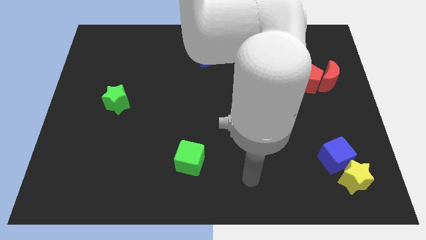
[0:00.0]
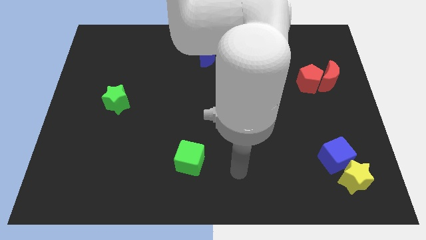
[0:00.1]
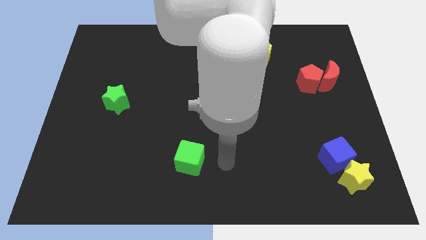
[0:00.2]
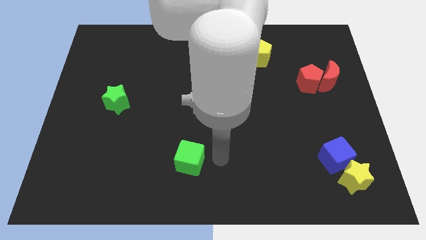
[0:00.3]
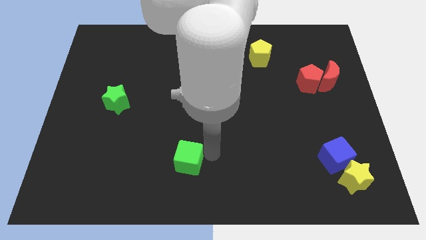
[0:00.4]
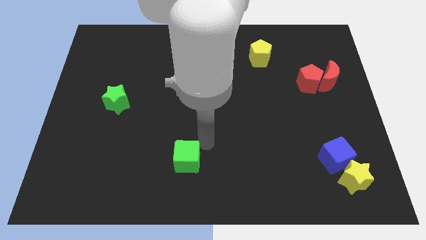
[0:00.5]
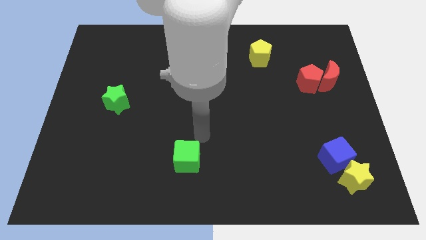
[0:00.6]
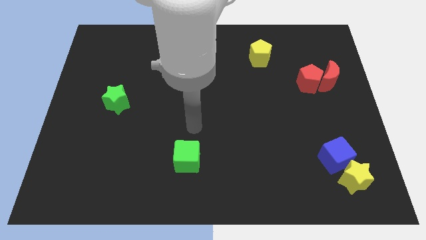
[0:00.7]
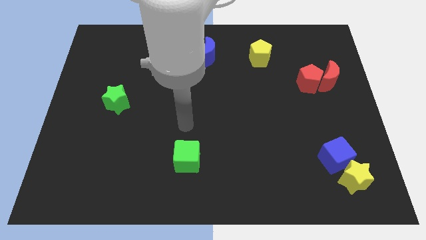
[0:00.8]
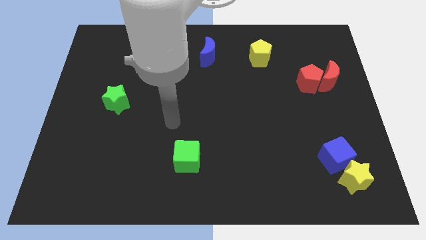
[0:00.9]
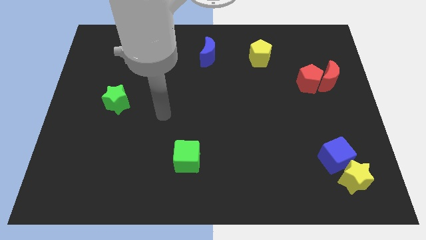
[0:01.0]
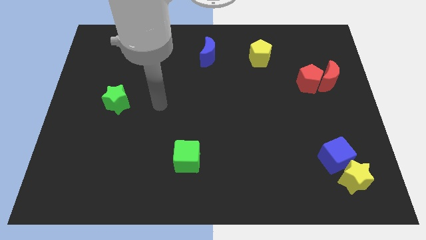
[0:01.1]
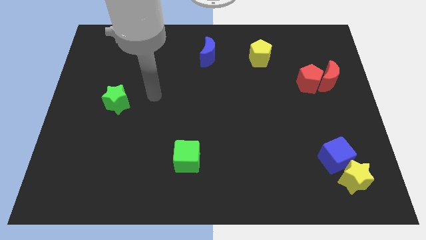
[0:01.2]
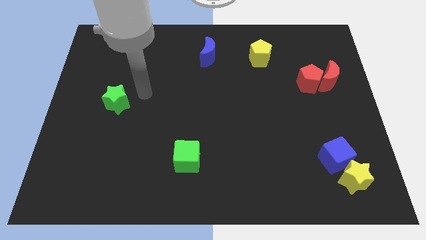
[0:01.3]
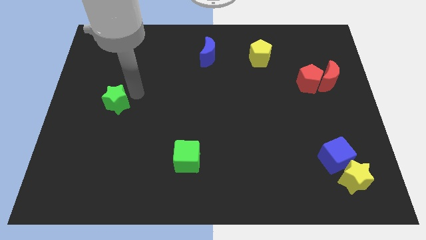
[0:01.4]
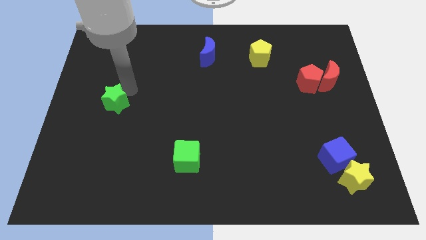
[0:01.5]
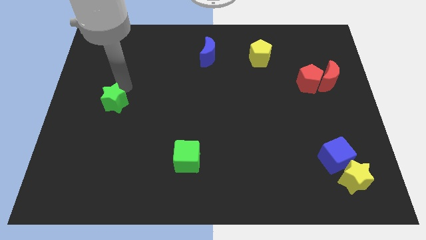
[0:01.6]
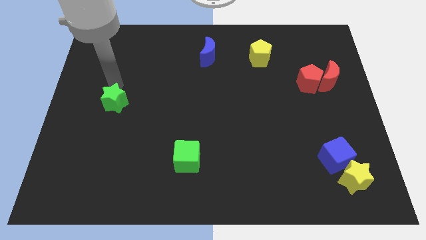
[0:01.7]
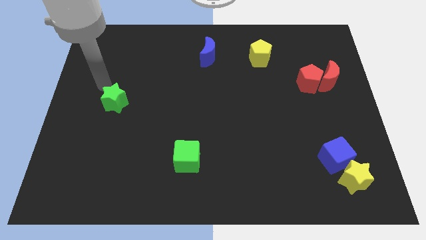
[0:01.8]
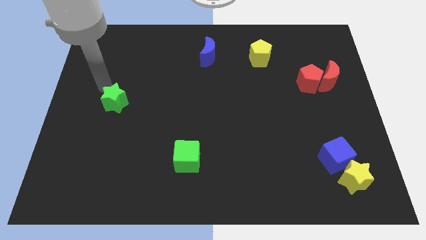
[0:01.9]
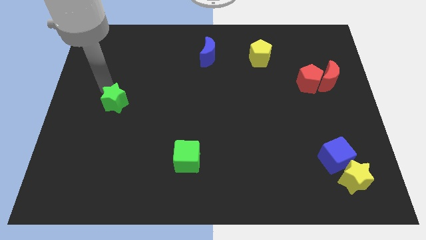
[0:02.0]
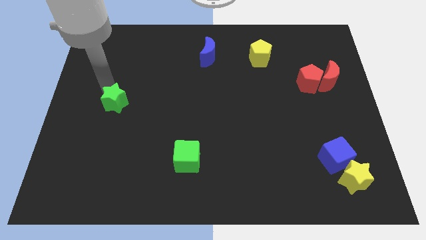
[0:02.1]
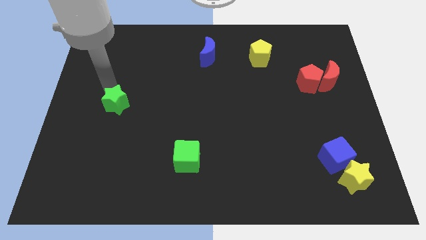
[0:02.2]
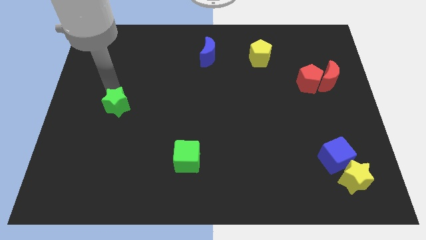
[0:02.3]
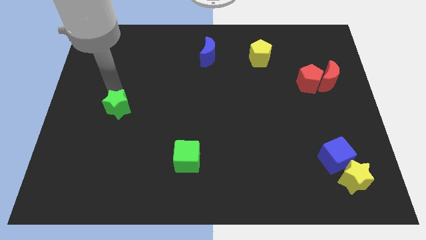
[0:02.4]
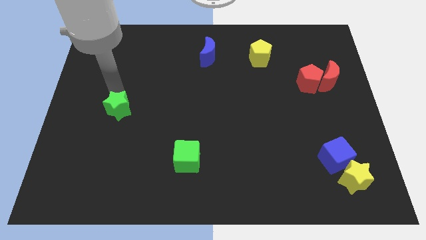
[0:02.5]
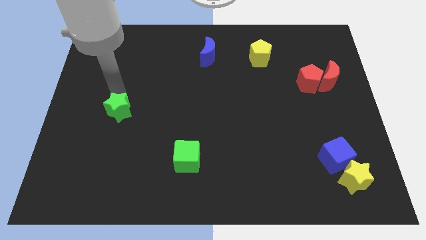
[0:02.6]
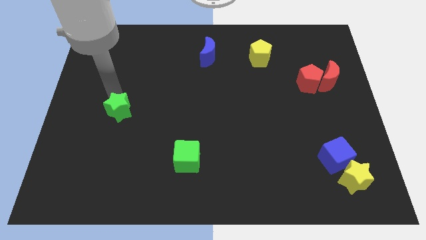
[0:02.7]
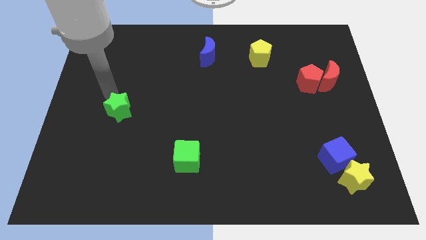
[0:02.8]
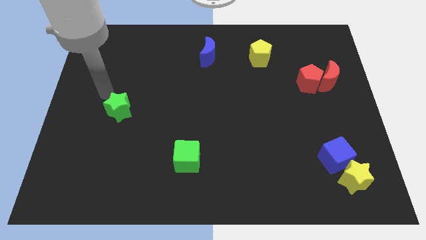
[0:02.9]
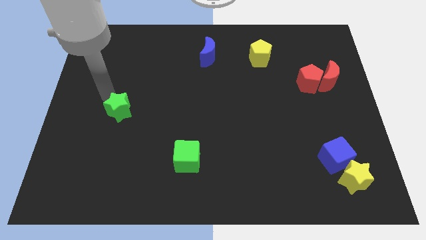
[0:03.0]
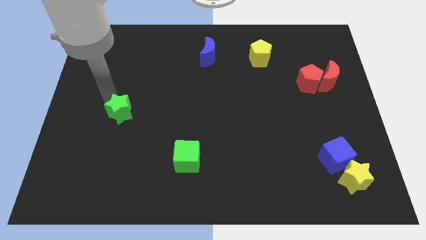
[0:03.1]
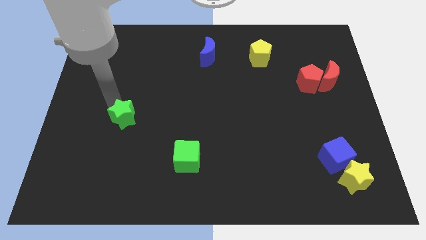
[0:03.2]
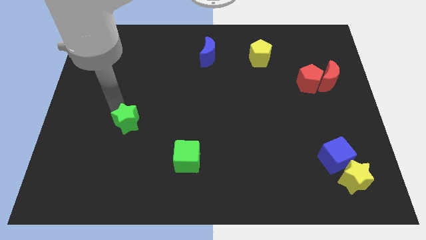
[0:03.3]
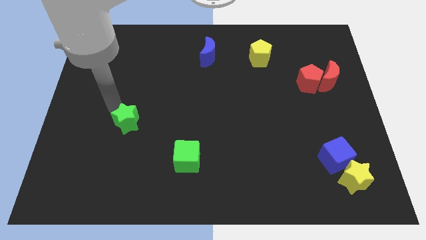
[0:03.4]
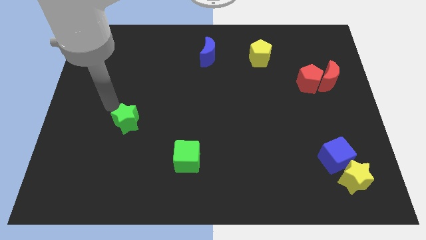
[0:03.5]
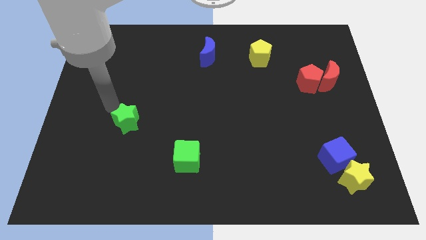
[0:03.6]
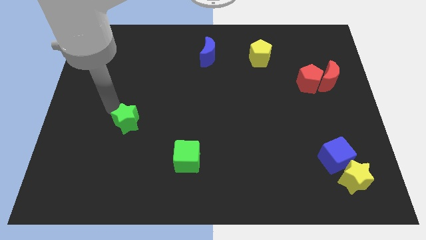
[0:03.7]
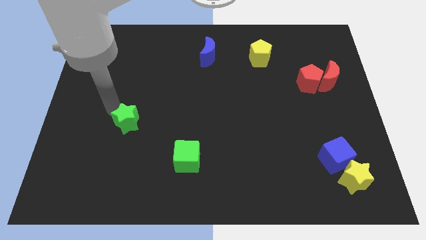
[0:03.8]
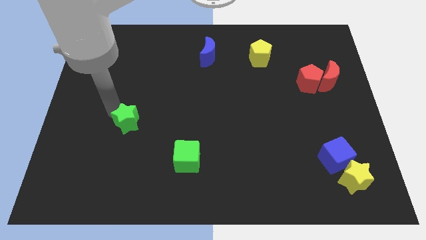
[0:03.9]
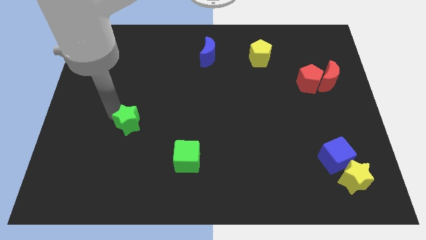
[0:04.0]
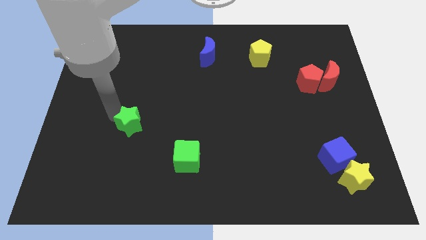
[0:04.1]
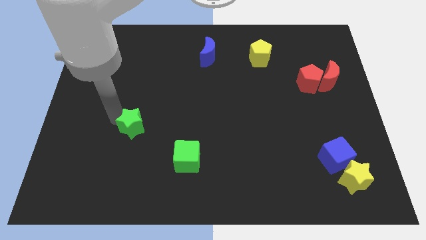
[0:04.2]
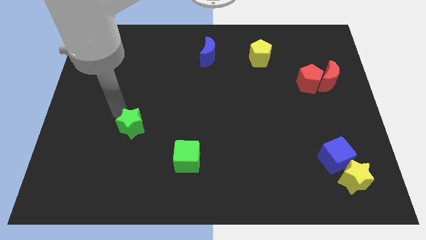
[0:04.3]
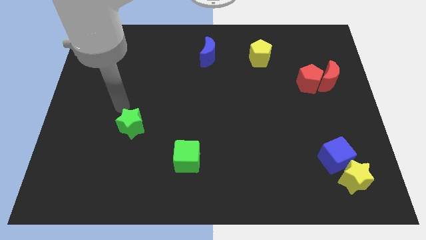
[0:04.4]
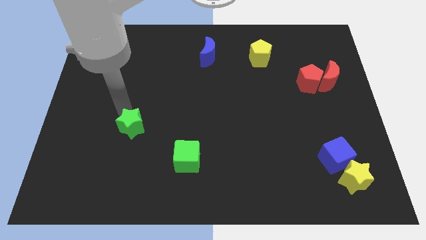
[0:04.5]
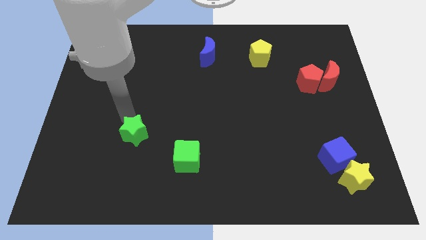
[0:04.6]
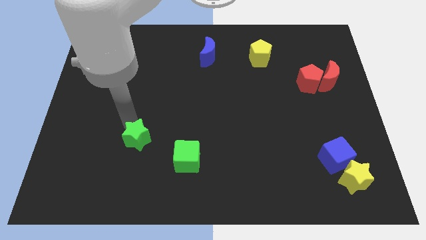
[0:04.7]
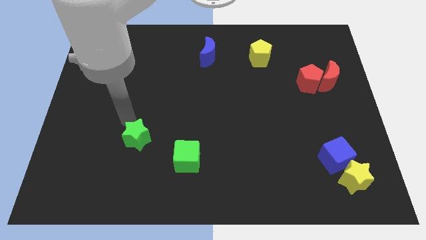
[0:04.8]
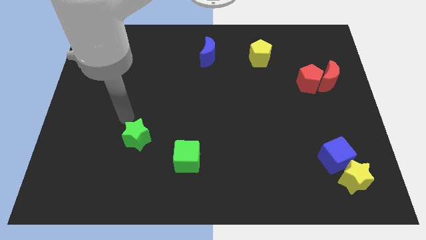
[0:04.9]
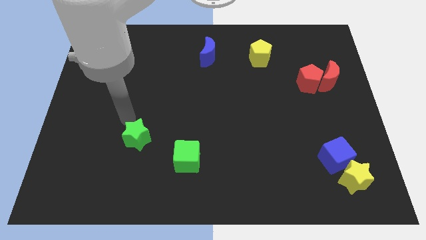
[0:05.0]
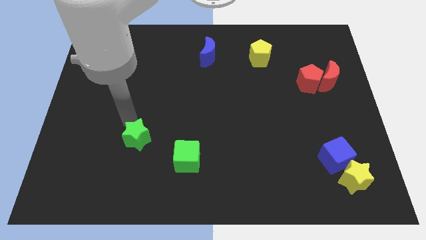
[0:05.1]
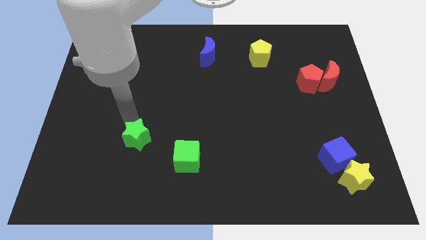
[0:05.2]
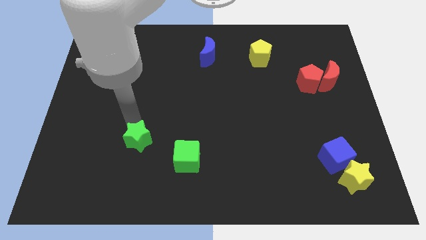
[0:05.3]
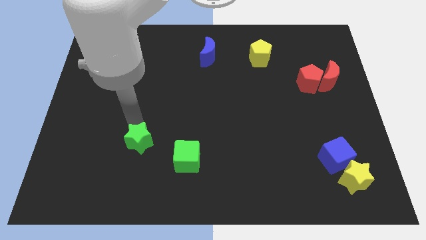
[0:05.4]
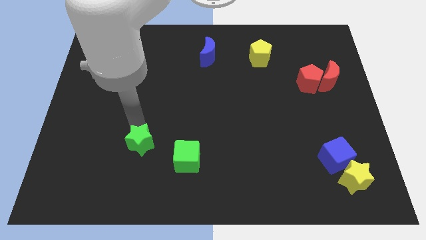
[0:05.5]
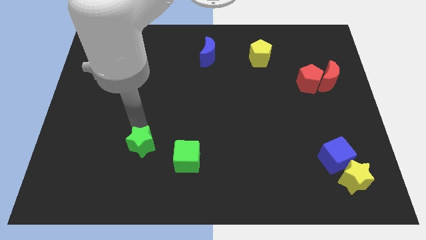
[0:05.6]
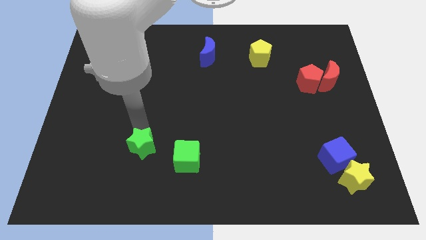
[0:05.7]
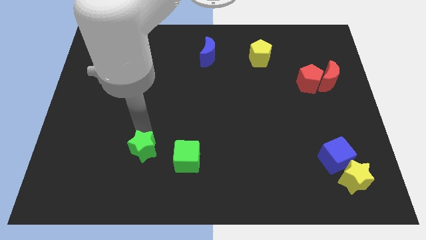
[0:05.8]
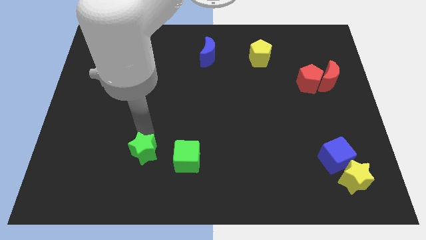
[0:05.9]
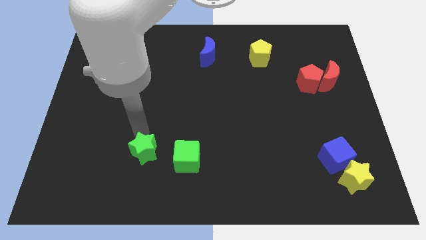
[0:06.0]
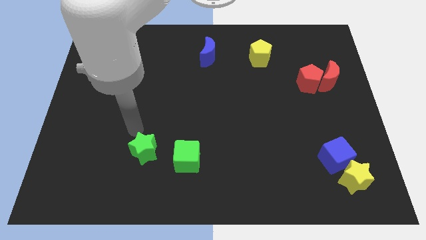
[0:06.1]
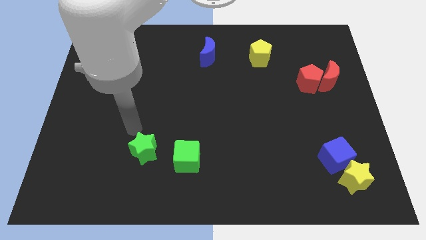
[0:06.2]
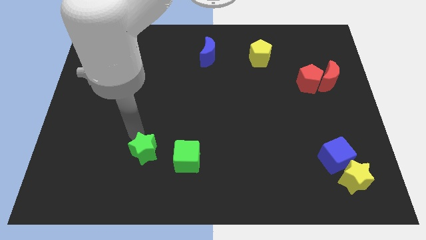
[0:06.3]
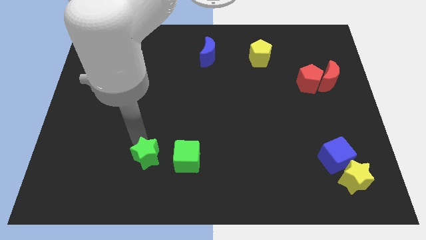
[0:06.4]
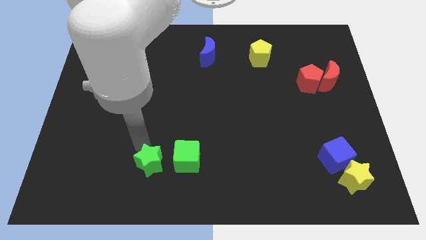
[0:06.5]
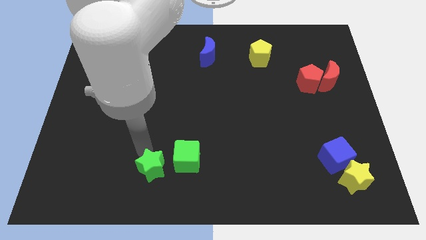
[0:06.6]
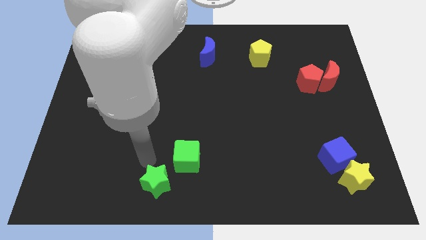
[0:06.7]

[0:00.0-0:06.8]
push the green star to the bottom side
